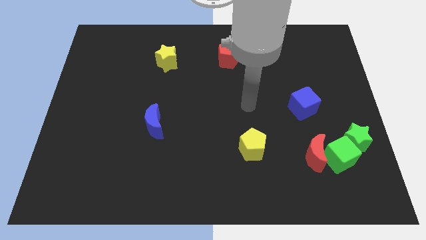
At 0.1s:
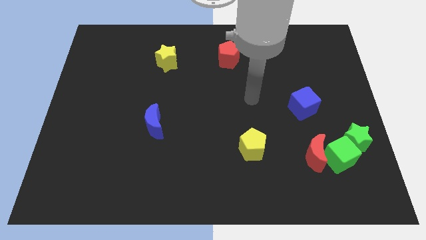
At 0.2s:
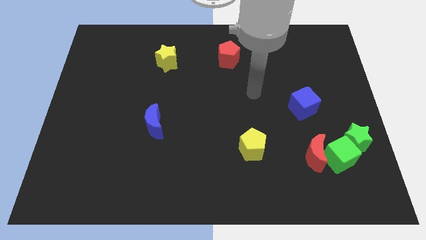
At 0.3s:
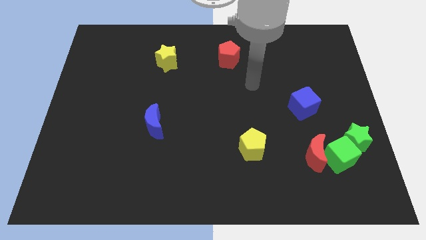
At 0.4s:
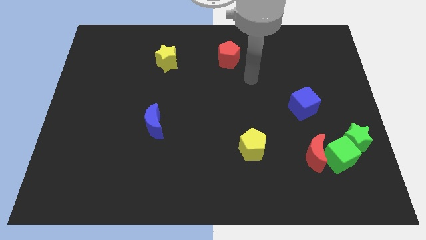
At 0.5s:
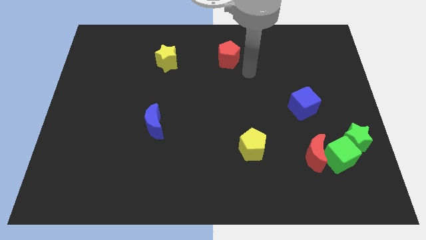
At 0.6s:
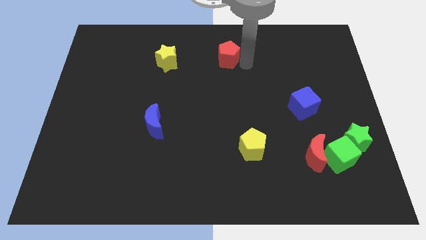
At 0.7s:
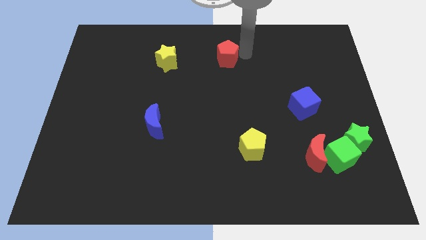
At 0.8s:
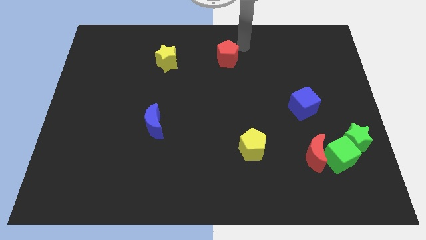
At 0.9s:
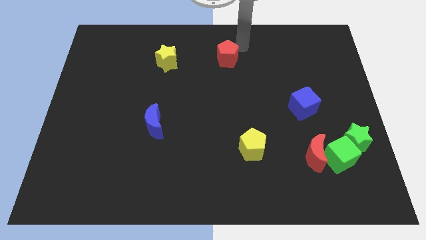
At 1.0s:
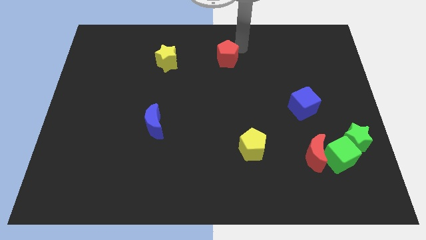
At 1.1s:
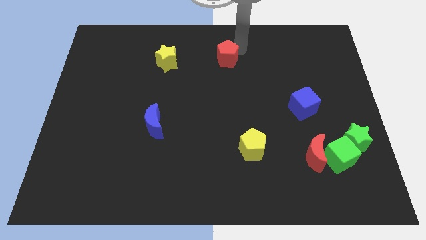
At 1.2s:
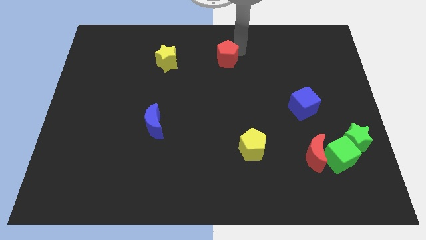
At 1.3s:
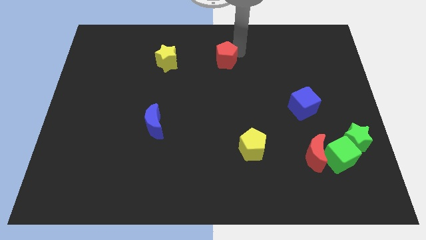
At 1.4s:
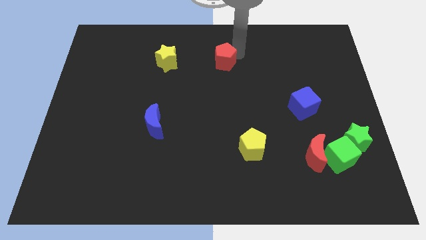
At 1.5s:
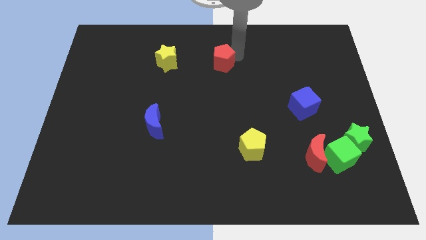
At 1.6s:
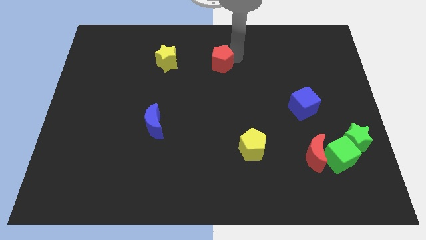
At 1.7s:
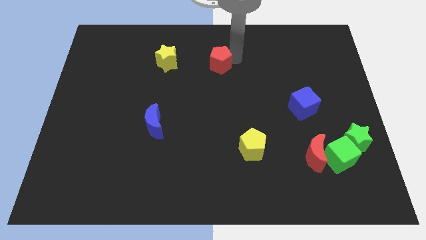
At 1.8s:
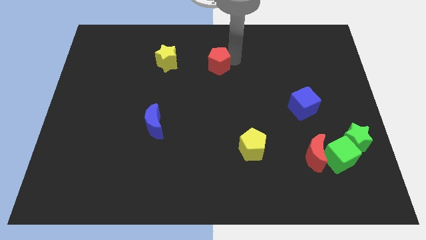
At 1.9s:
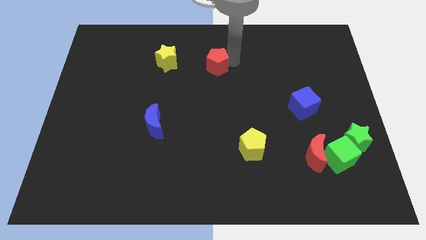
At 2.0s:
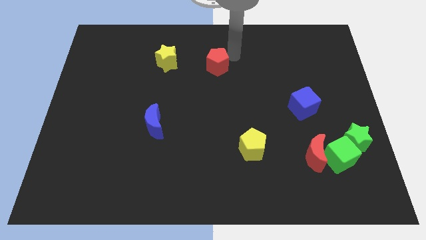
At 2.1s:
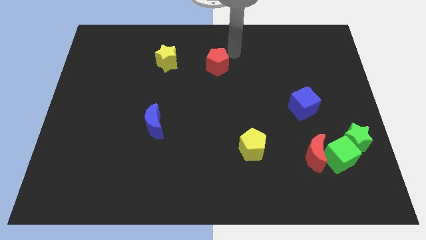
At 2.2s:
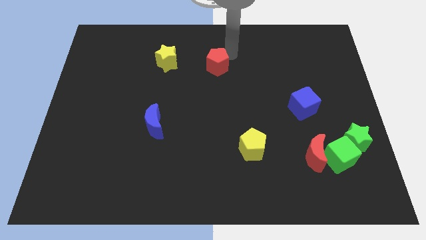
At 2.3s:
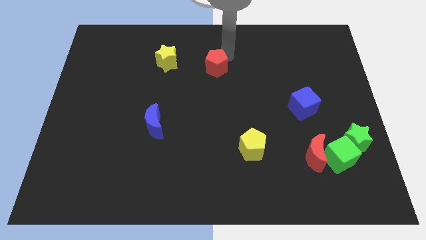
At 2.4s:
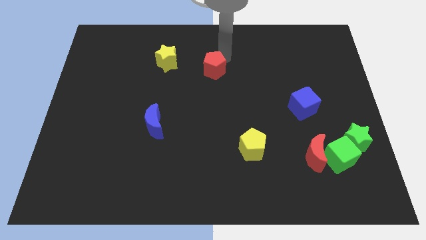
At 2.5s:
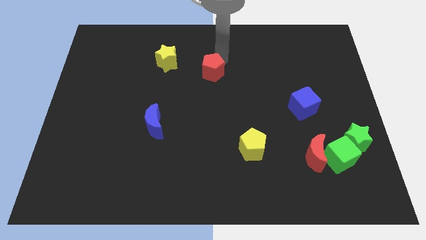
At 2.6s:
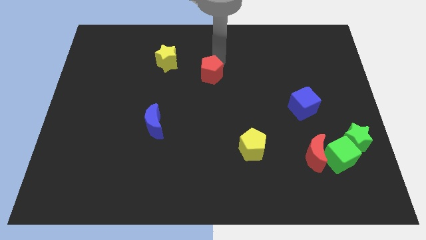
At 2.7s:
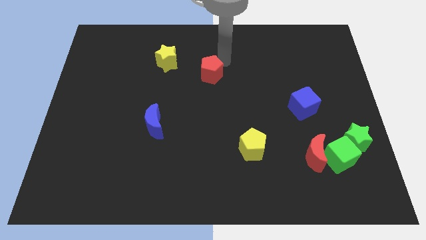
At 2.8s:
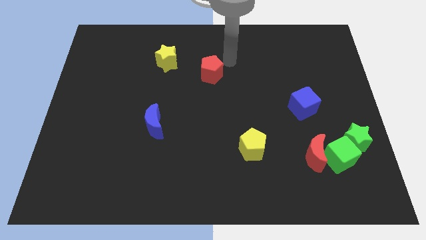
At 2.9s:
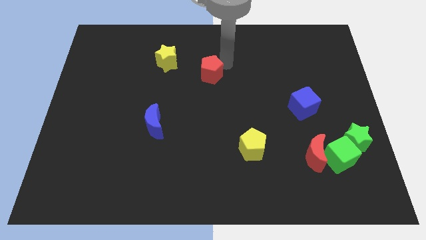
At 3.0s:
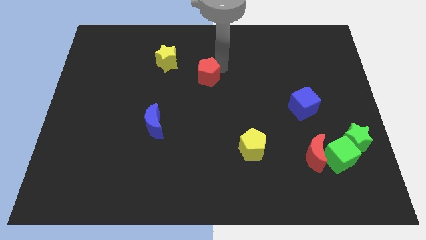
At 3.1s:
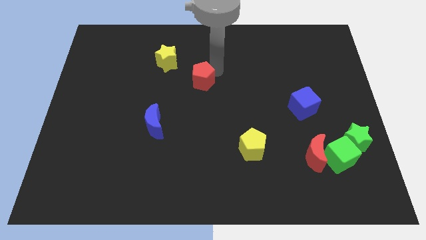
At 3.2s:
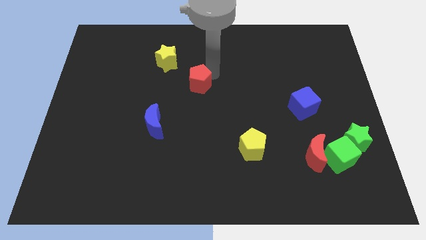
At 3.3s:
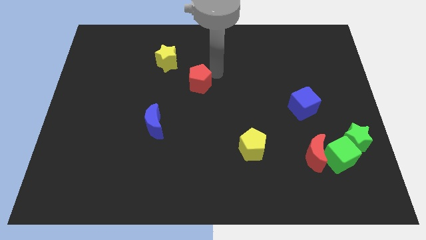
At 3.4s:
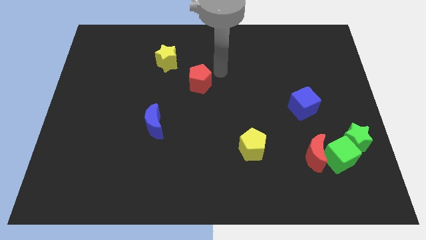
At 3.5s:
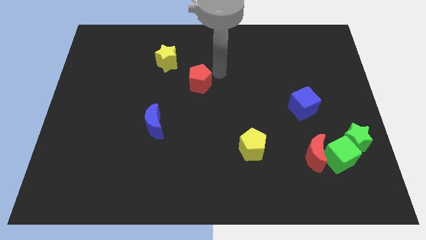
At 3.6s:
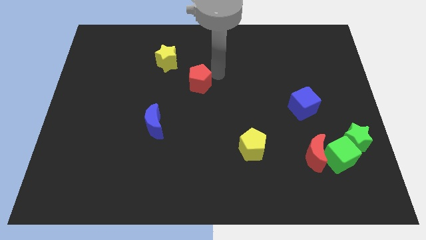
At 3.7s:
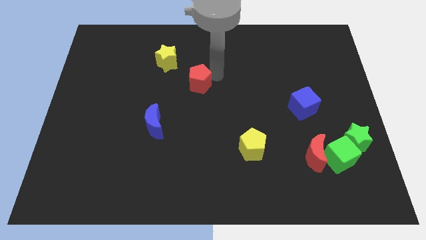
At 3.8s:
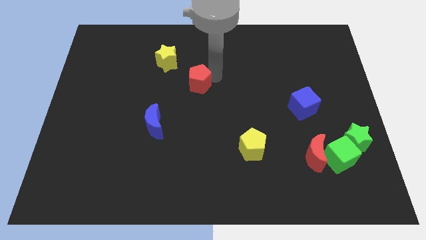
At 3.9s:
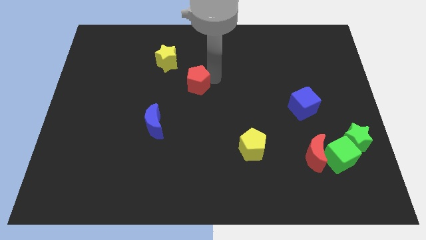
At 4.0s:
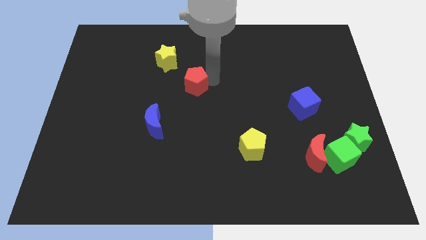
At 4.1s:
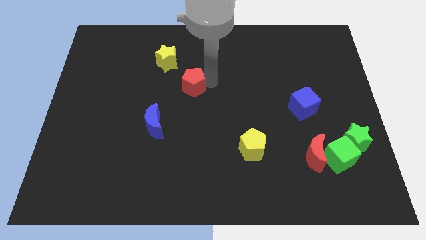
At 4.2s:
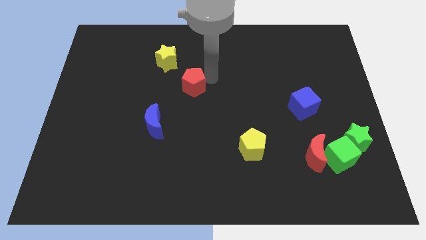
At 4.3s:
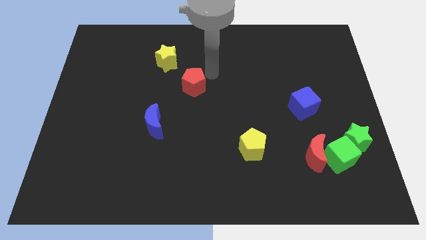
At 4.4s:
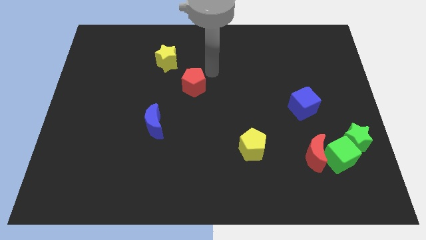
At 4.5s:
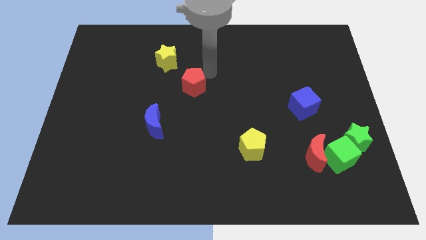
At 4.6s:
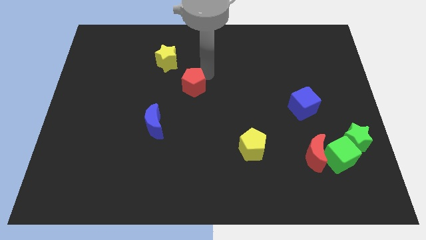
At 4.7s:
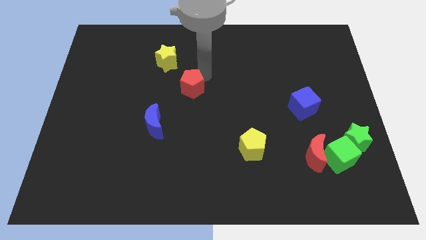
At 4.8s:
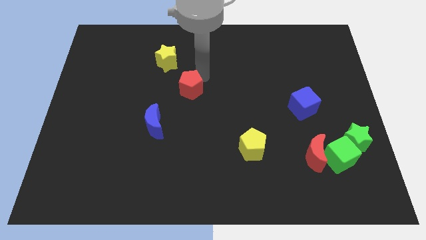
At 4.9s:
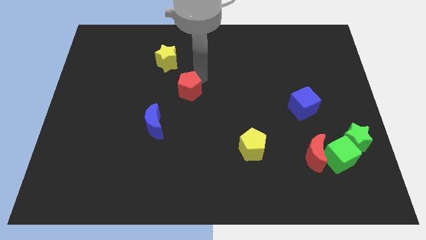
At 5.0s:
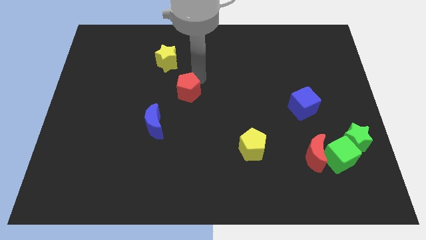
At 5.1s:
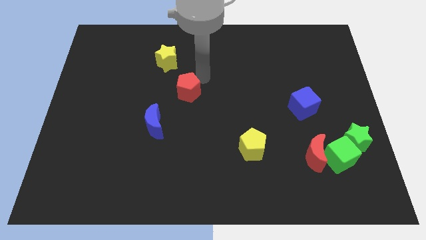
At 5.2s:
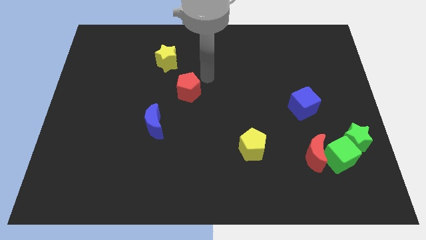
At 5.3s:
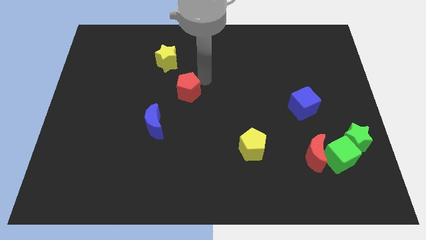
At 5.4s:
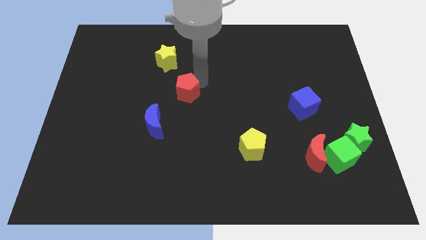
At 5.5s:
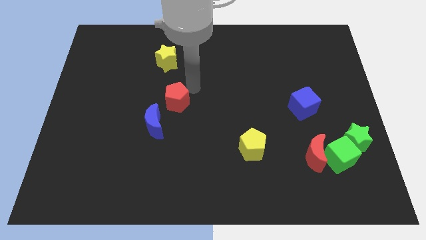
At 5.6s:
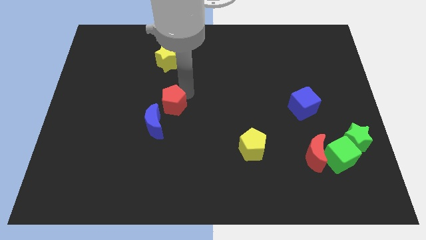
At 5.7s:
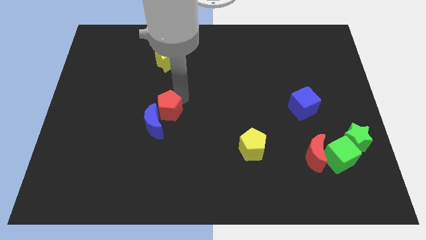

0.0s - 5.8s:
slide the red pentagon close to the blue moon

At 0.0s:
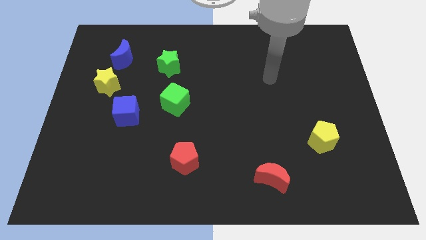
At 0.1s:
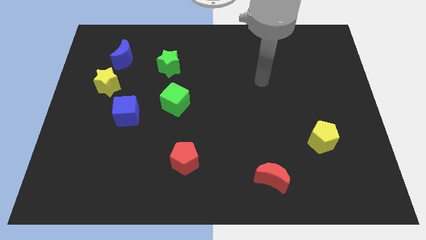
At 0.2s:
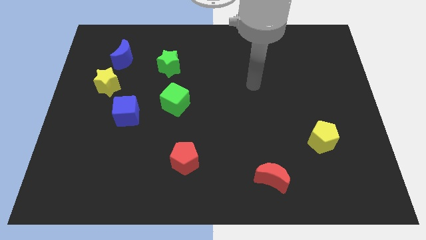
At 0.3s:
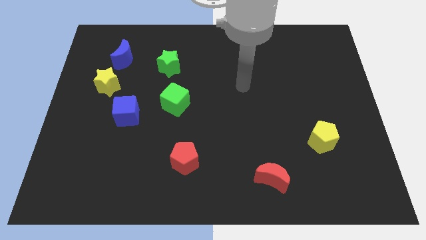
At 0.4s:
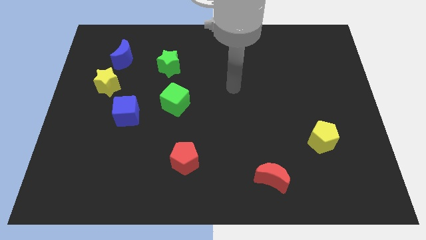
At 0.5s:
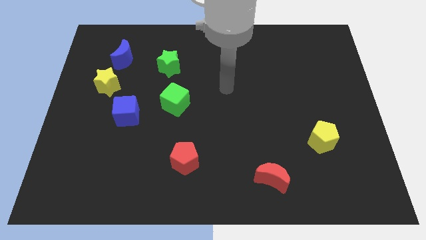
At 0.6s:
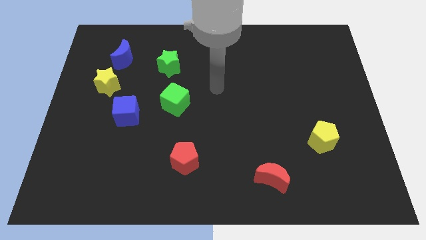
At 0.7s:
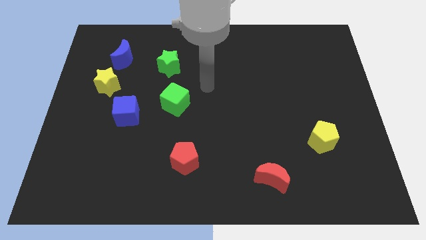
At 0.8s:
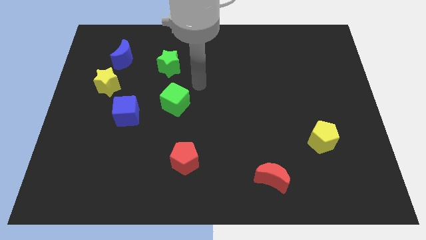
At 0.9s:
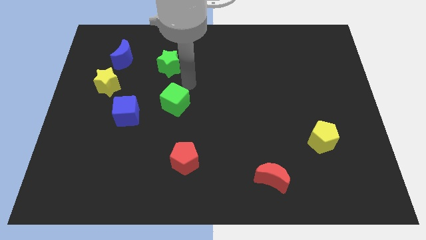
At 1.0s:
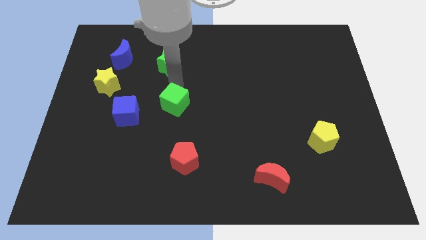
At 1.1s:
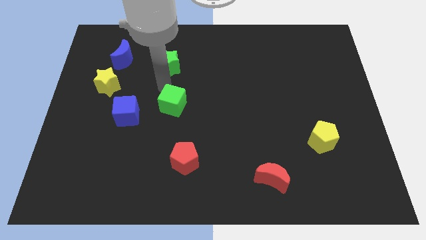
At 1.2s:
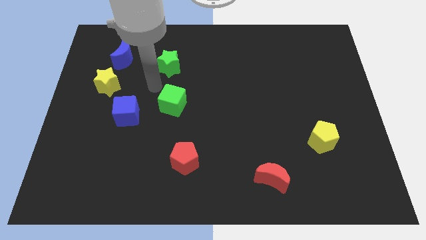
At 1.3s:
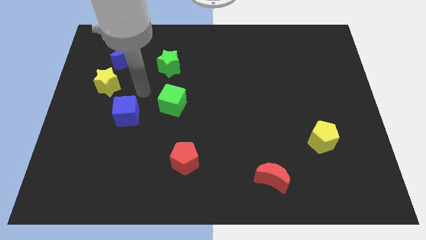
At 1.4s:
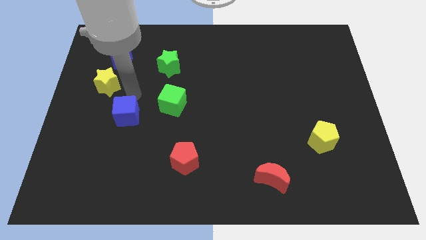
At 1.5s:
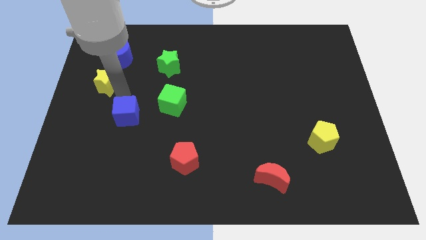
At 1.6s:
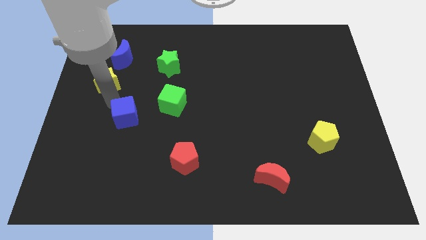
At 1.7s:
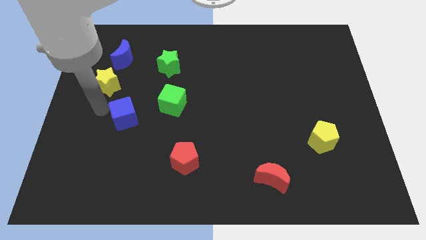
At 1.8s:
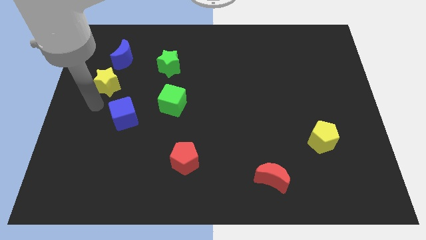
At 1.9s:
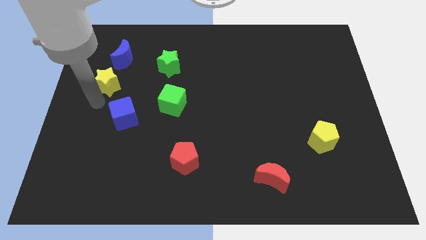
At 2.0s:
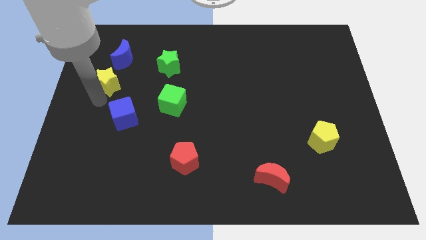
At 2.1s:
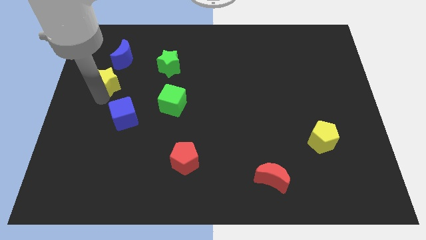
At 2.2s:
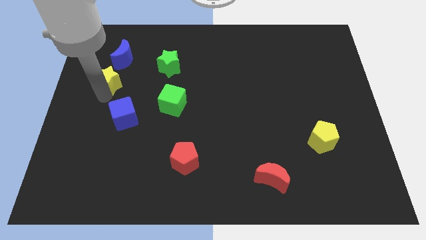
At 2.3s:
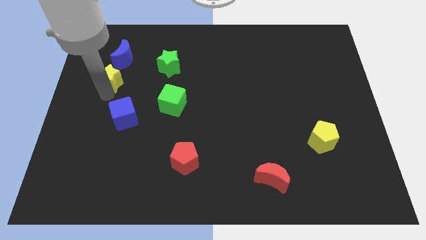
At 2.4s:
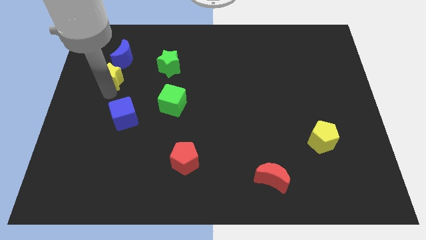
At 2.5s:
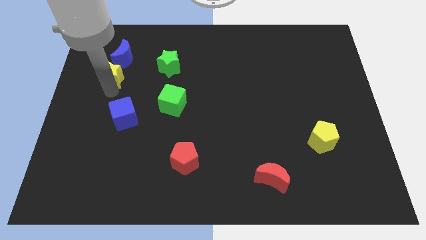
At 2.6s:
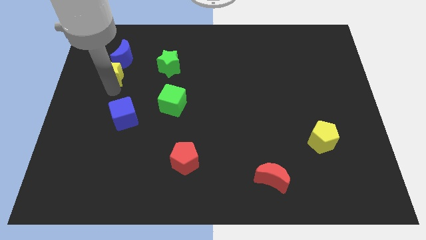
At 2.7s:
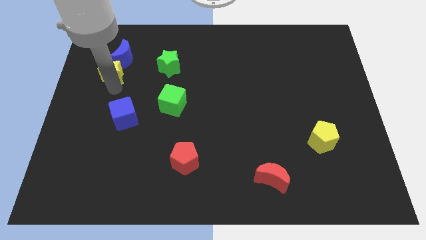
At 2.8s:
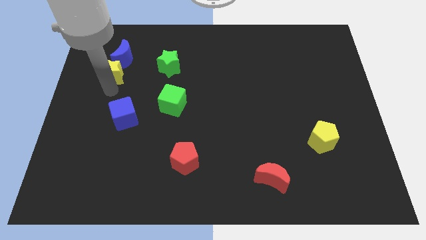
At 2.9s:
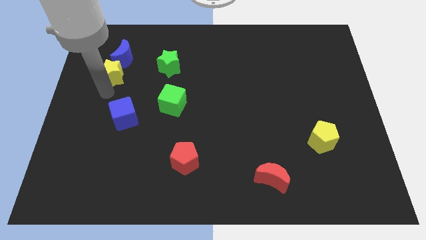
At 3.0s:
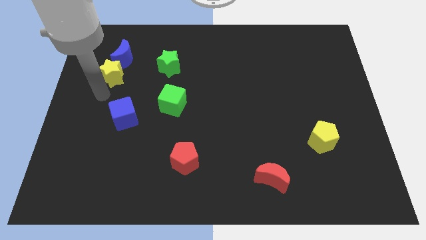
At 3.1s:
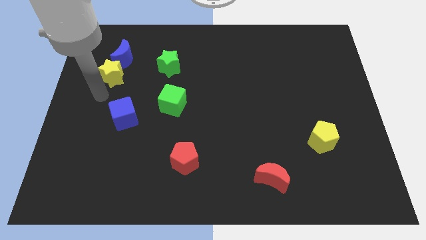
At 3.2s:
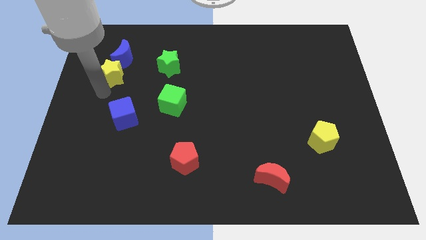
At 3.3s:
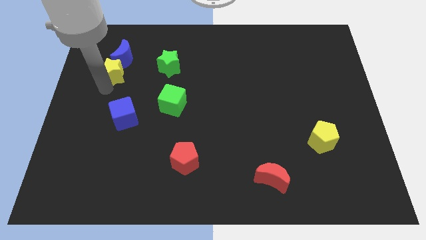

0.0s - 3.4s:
slide the yellow star towards the blue moon
